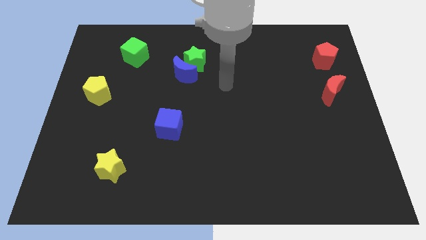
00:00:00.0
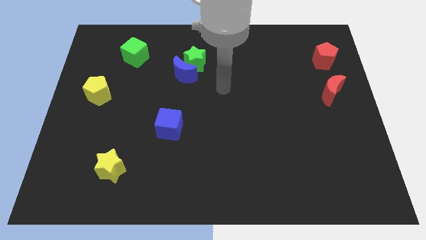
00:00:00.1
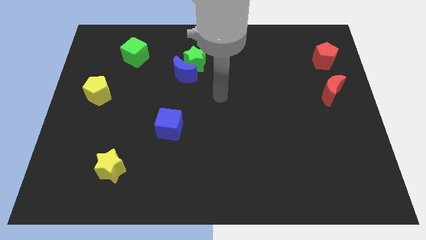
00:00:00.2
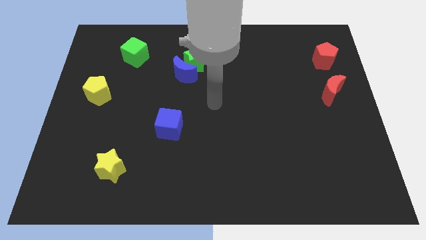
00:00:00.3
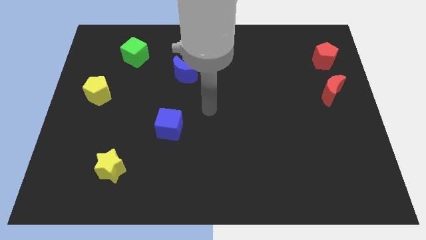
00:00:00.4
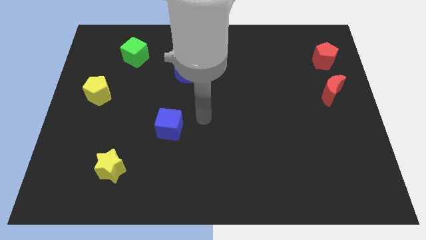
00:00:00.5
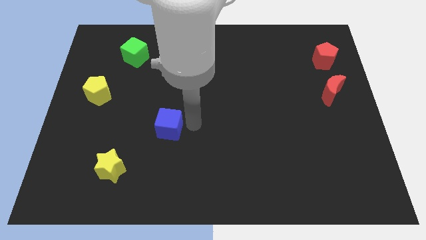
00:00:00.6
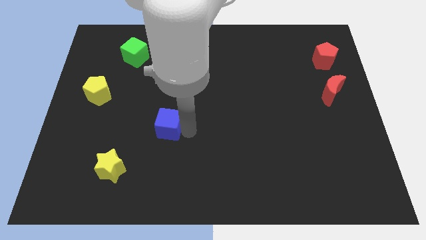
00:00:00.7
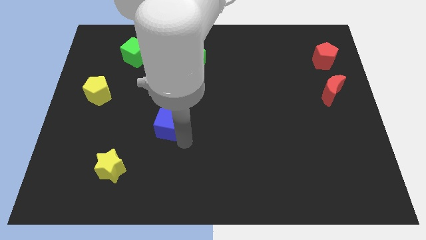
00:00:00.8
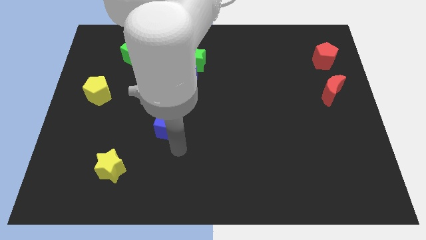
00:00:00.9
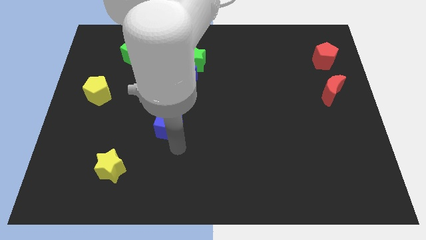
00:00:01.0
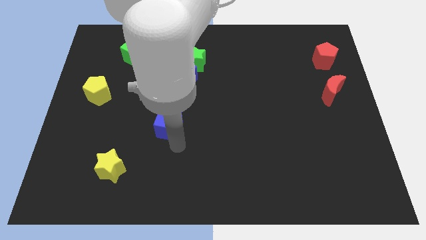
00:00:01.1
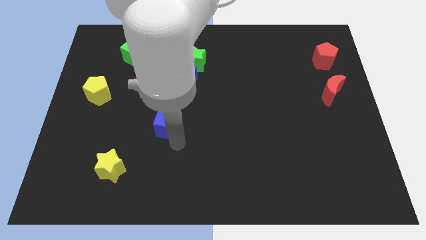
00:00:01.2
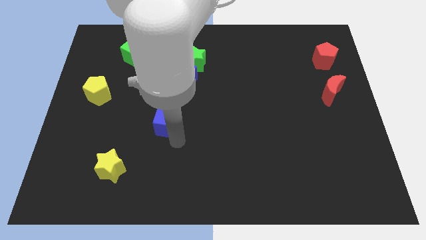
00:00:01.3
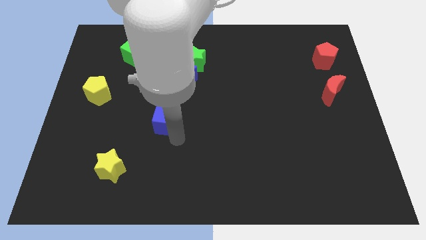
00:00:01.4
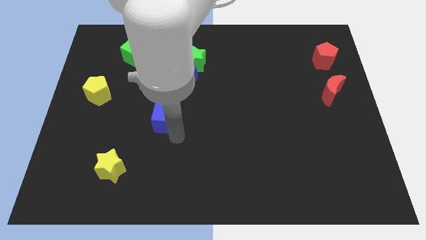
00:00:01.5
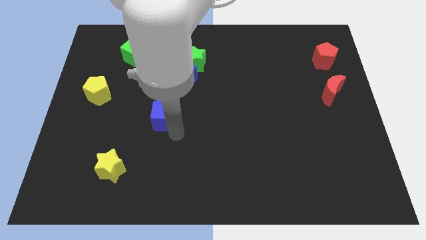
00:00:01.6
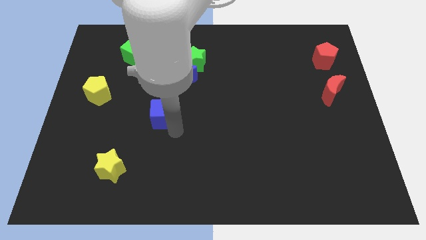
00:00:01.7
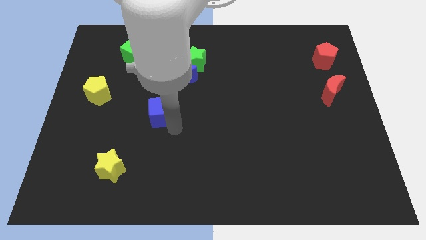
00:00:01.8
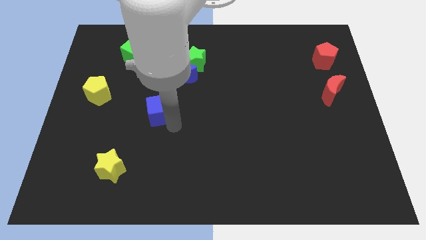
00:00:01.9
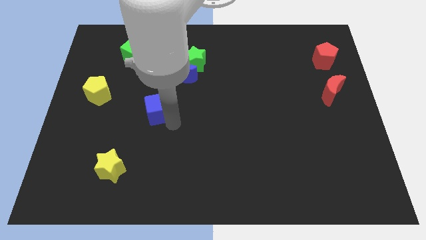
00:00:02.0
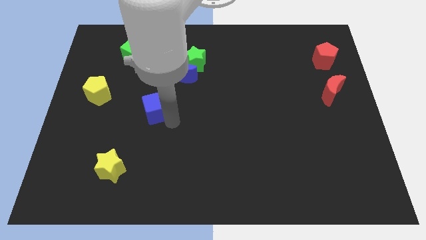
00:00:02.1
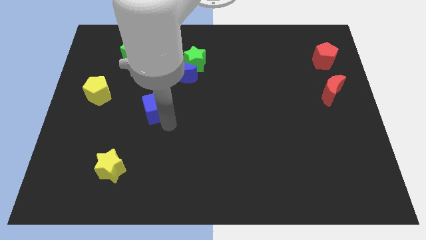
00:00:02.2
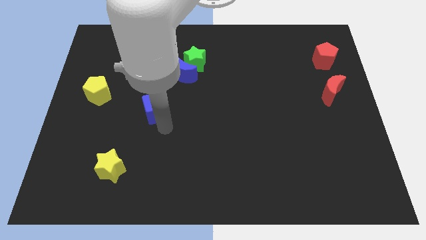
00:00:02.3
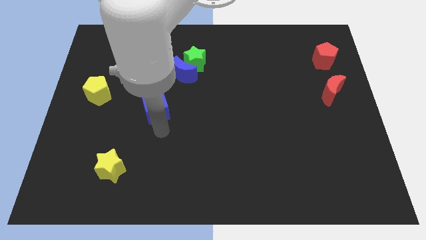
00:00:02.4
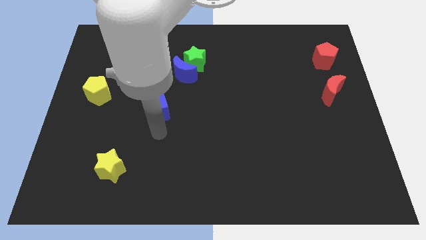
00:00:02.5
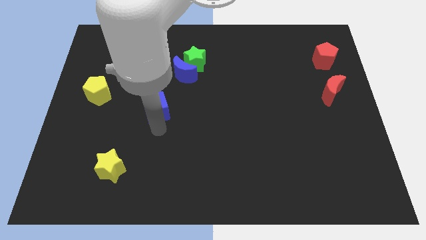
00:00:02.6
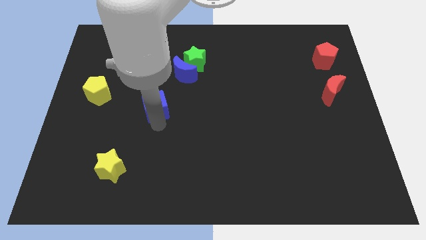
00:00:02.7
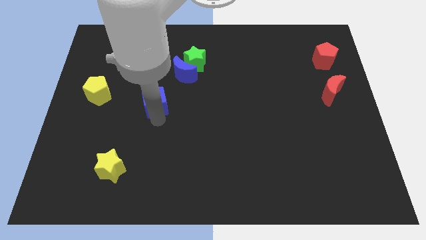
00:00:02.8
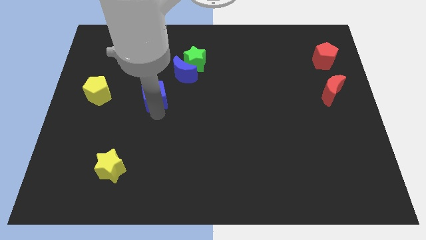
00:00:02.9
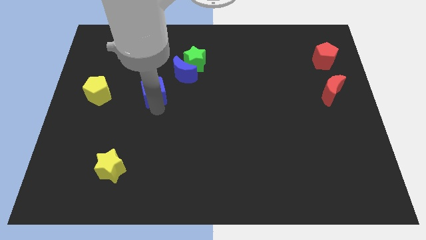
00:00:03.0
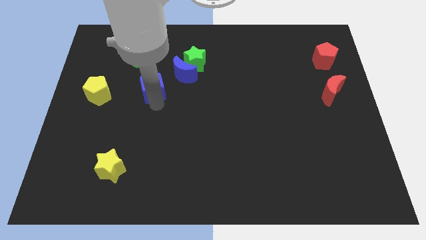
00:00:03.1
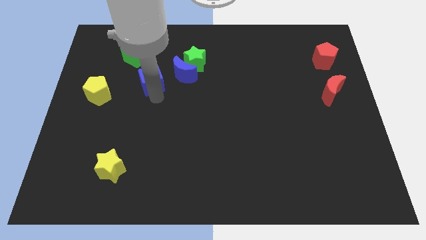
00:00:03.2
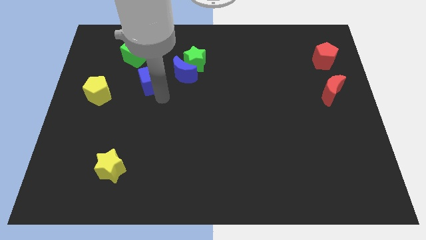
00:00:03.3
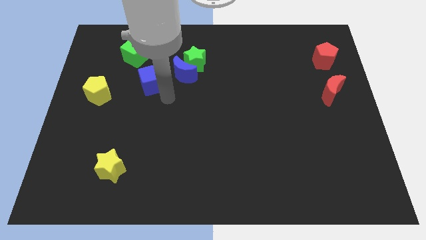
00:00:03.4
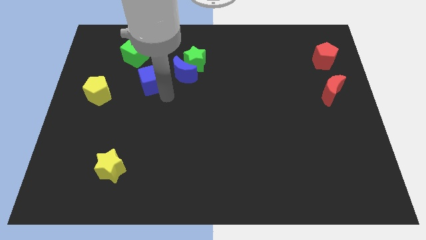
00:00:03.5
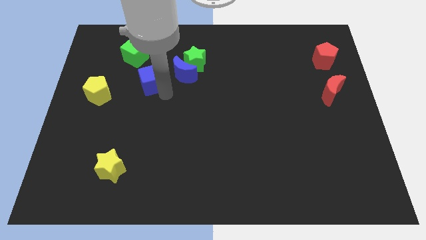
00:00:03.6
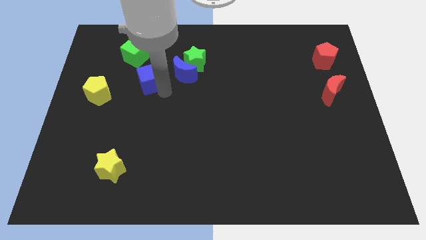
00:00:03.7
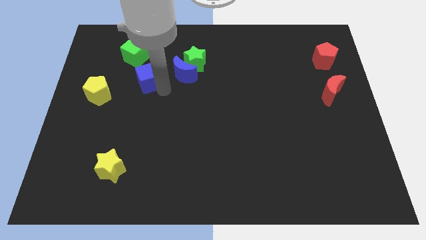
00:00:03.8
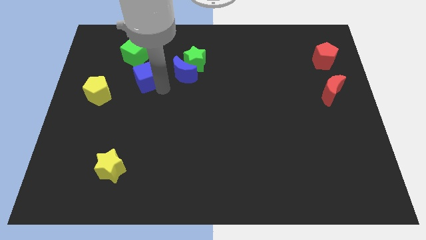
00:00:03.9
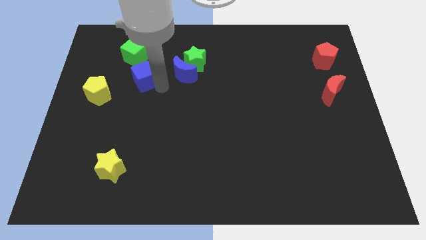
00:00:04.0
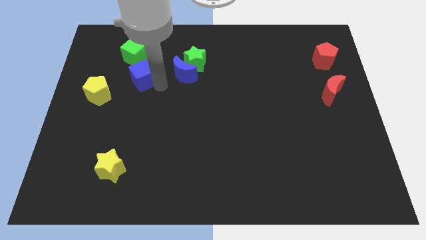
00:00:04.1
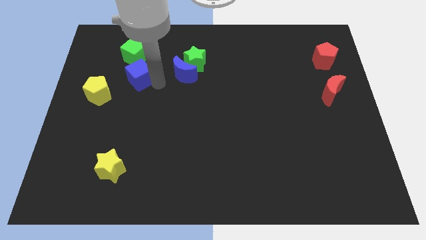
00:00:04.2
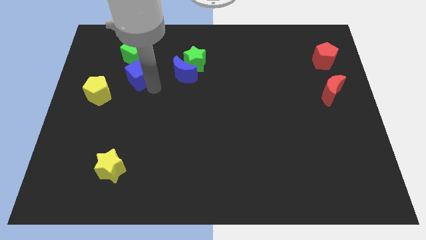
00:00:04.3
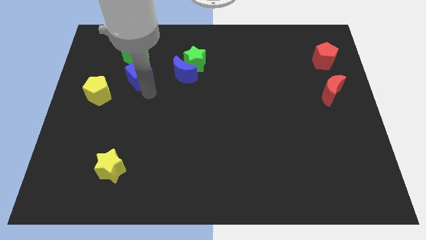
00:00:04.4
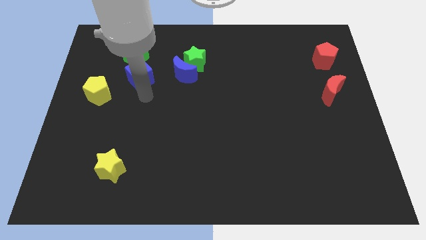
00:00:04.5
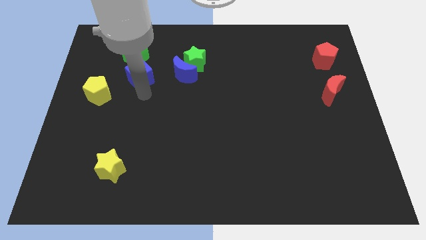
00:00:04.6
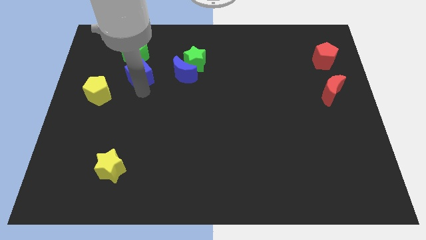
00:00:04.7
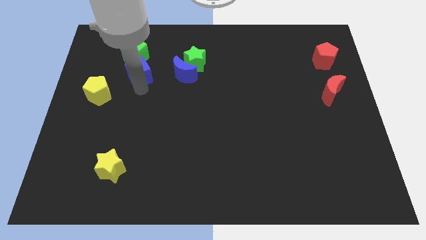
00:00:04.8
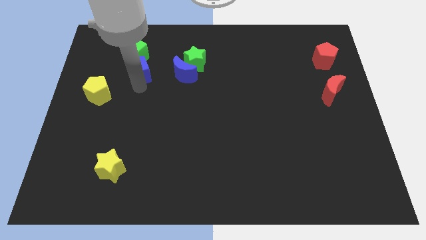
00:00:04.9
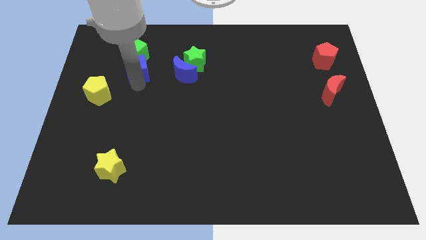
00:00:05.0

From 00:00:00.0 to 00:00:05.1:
put the blue cube towards the green cube

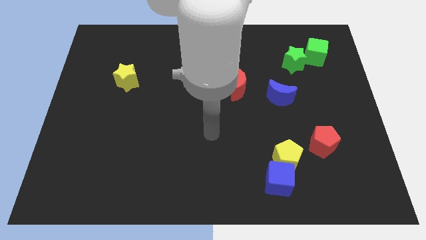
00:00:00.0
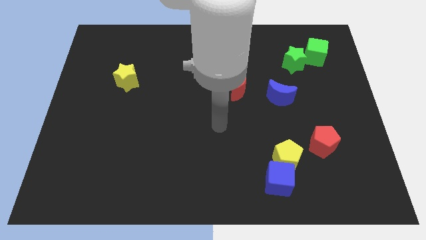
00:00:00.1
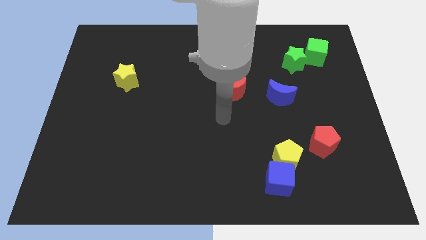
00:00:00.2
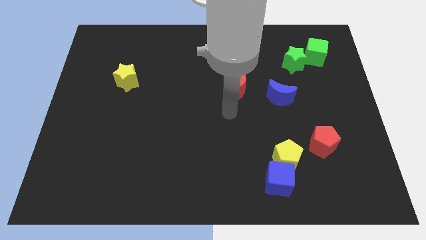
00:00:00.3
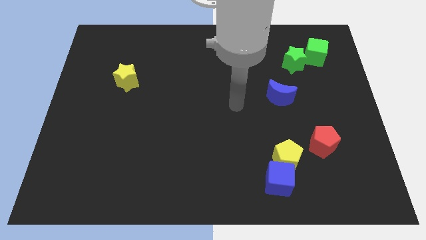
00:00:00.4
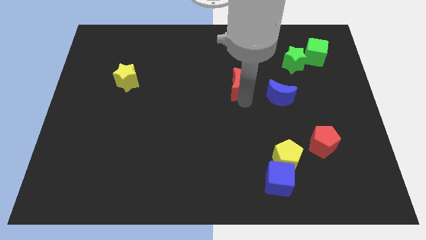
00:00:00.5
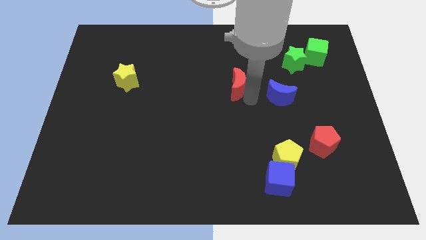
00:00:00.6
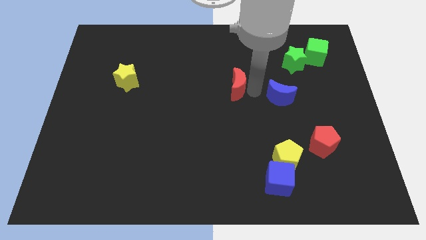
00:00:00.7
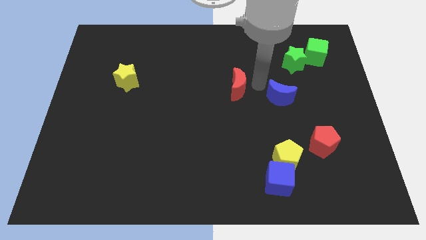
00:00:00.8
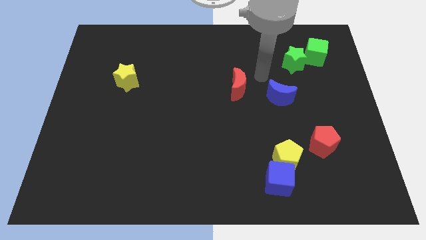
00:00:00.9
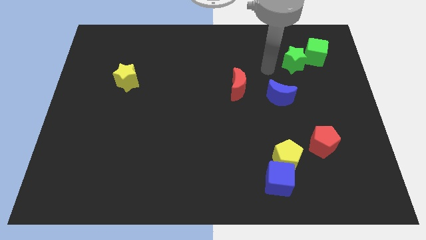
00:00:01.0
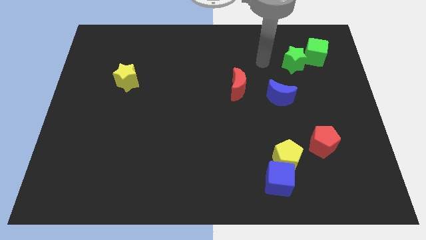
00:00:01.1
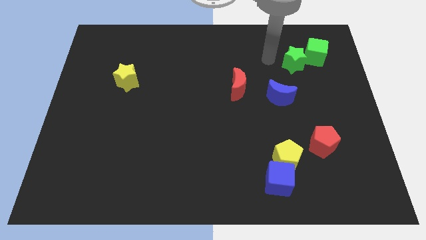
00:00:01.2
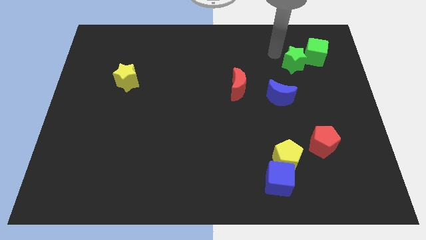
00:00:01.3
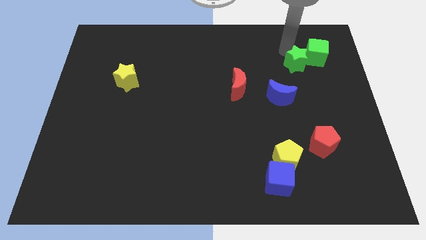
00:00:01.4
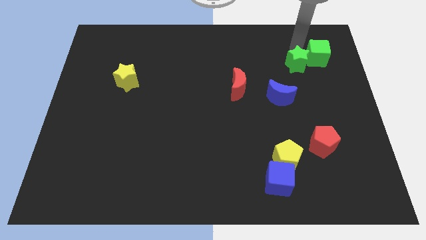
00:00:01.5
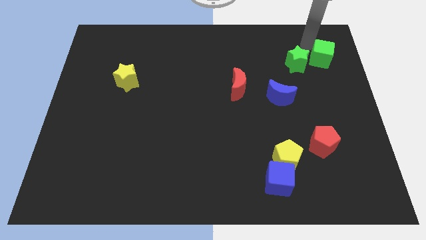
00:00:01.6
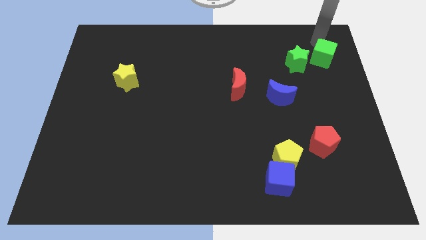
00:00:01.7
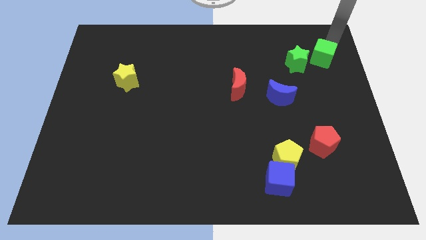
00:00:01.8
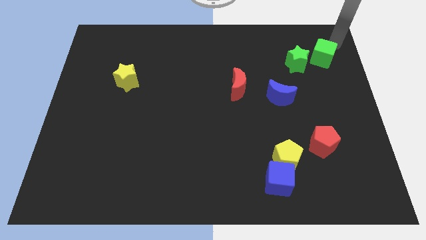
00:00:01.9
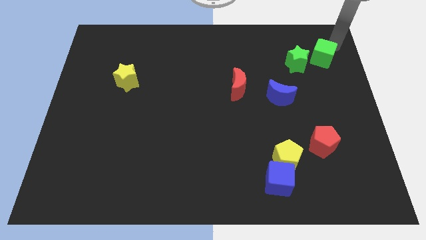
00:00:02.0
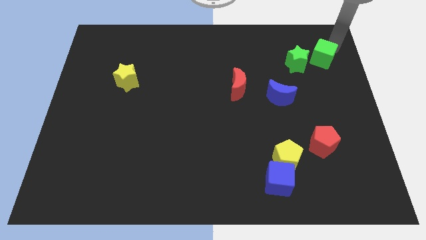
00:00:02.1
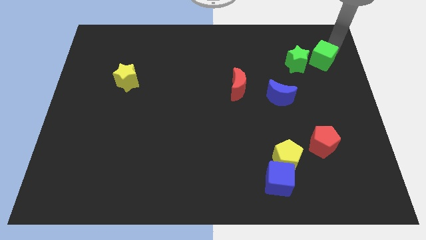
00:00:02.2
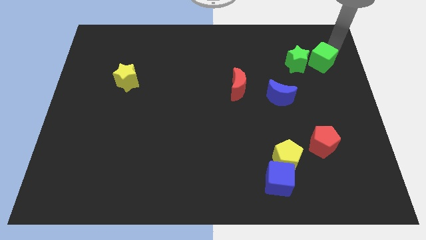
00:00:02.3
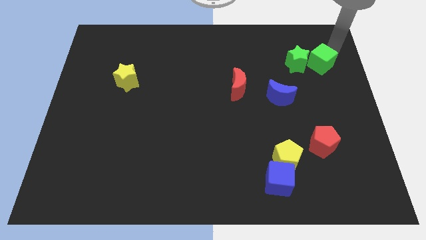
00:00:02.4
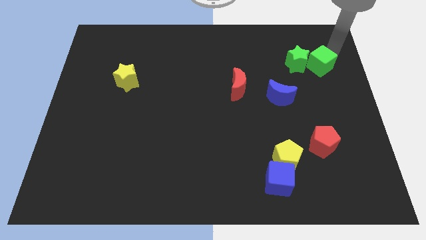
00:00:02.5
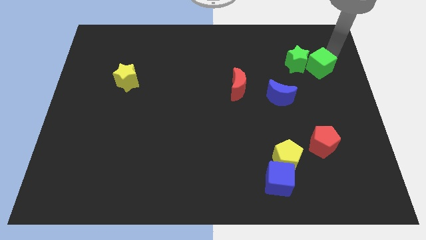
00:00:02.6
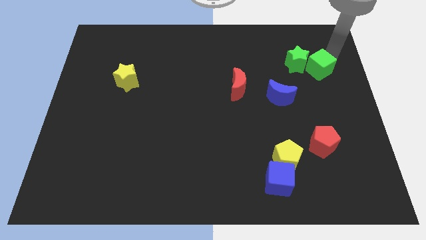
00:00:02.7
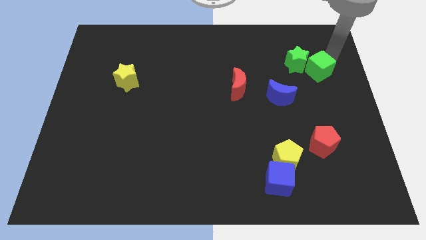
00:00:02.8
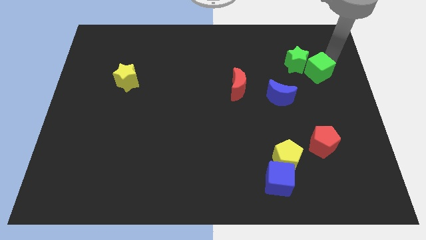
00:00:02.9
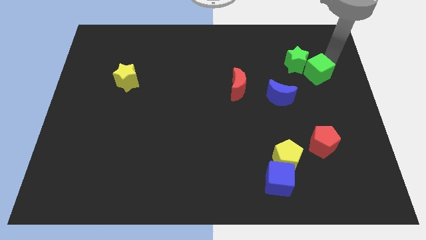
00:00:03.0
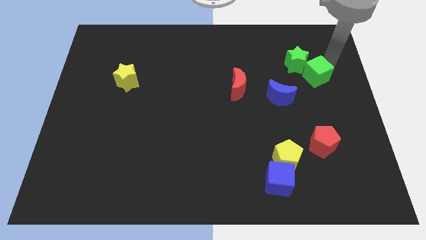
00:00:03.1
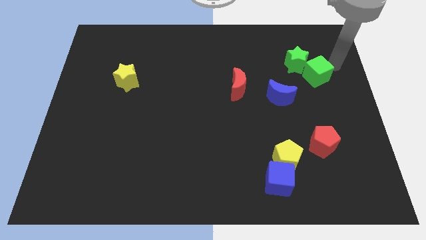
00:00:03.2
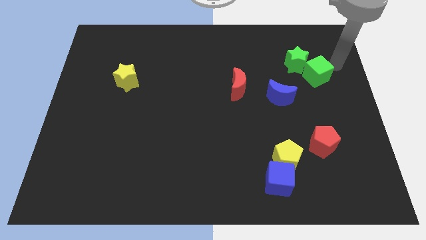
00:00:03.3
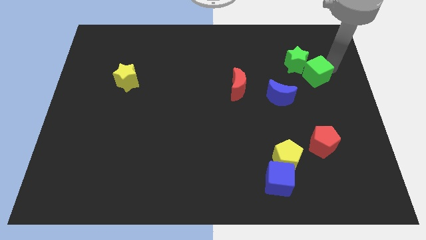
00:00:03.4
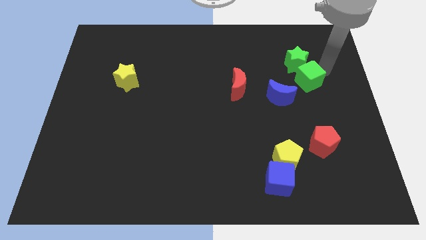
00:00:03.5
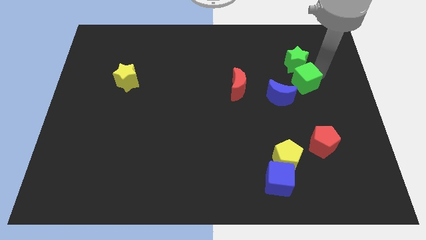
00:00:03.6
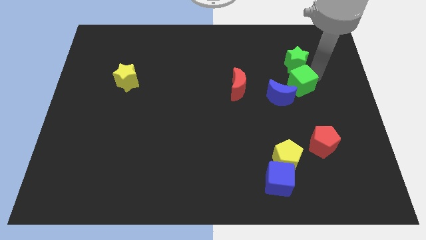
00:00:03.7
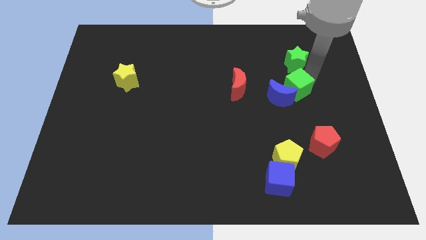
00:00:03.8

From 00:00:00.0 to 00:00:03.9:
move the green cube close to the blue moon
